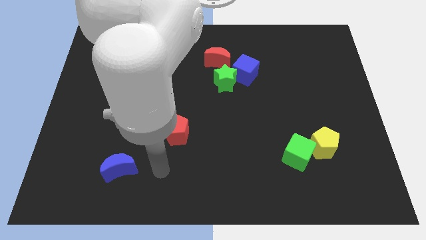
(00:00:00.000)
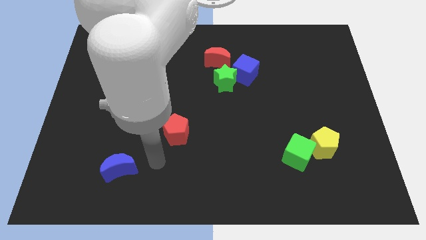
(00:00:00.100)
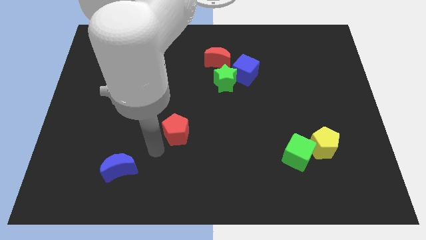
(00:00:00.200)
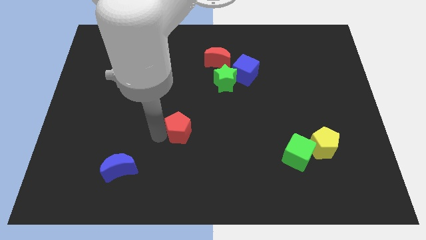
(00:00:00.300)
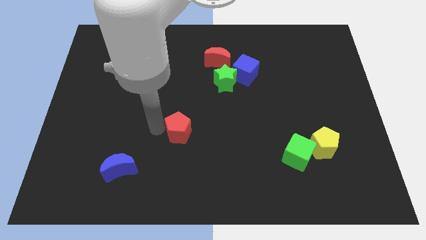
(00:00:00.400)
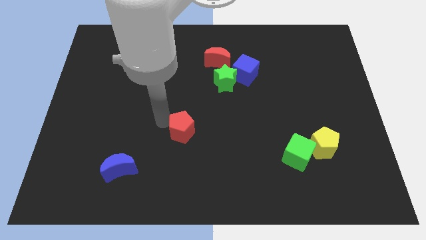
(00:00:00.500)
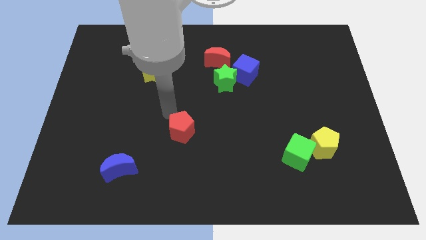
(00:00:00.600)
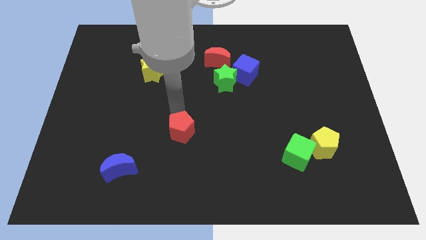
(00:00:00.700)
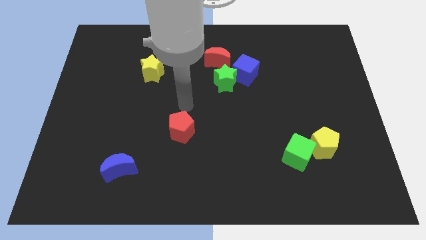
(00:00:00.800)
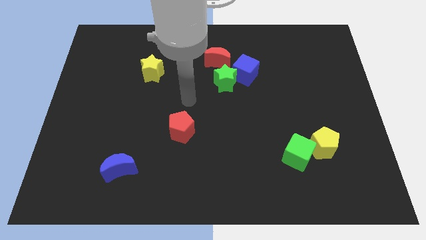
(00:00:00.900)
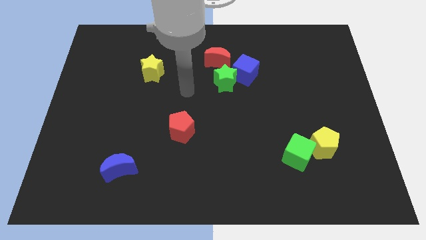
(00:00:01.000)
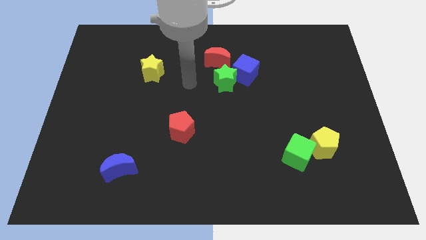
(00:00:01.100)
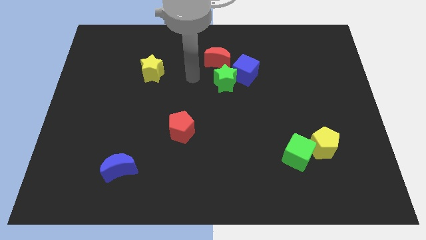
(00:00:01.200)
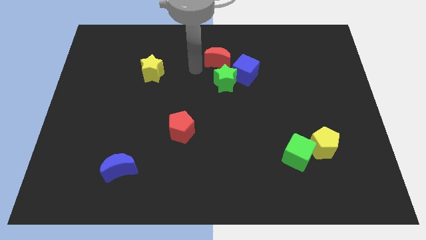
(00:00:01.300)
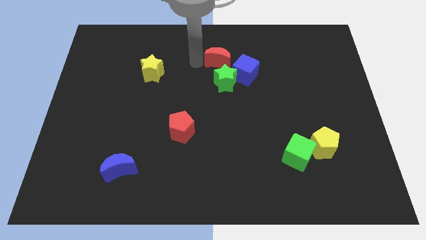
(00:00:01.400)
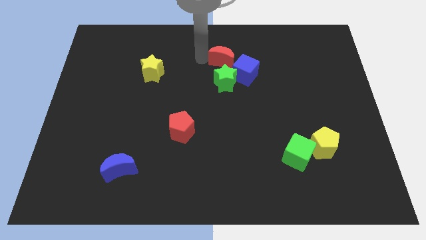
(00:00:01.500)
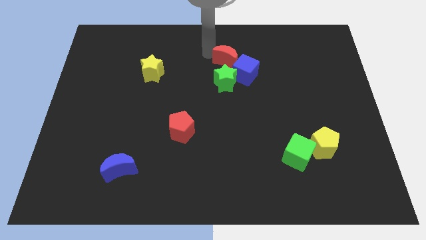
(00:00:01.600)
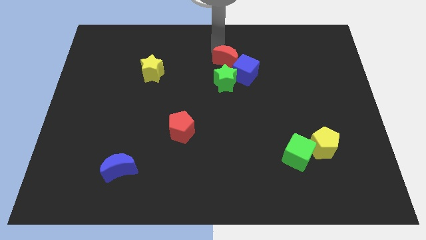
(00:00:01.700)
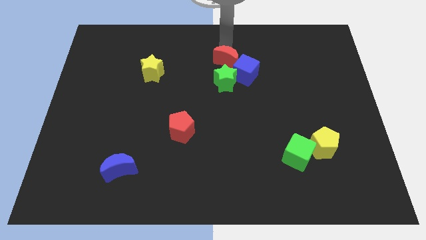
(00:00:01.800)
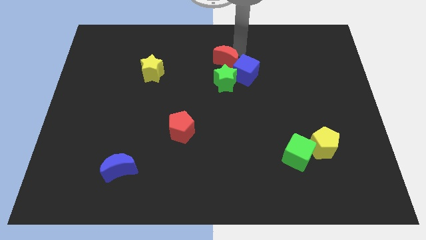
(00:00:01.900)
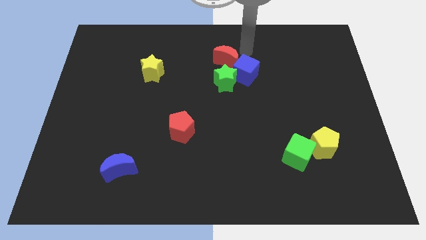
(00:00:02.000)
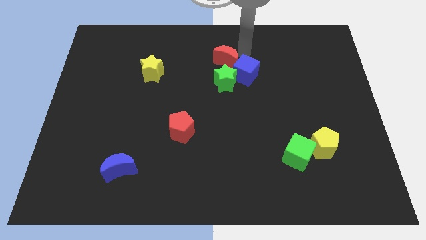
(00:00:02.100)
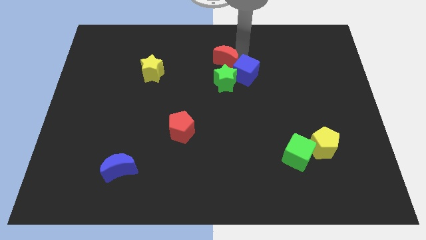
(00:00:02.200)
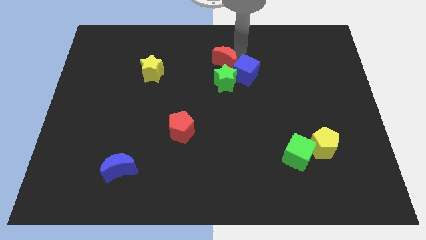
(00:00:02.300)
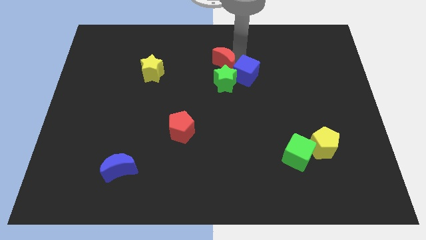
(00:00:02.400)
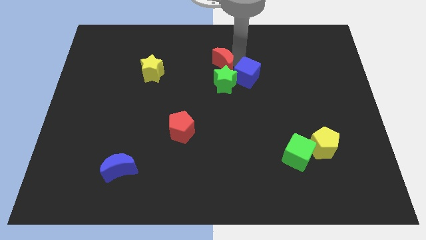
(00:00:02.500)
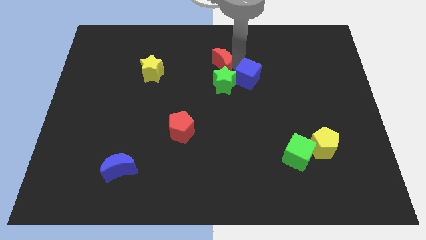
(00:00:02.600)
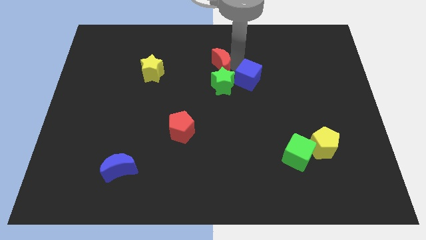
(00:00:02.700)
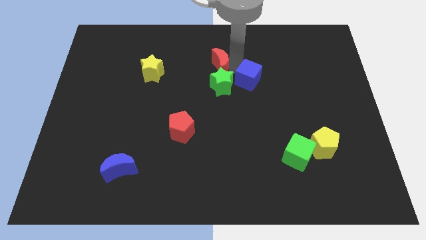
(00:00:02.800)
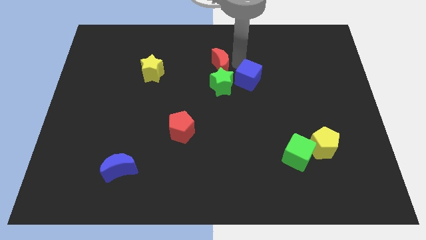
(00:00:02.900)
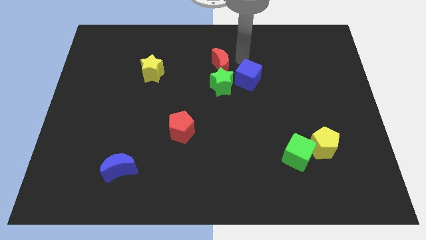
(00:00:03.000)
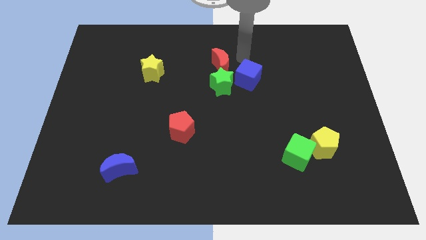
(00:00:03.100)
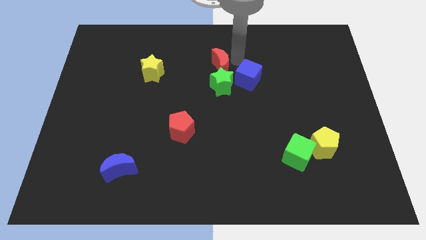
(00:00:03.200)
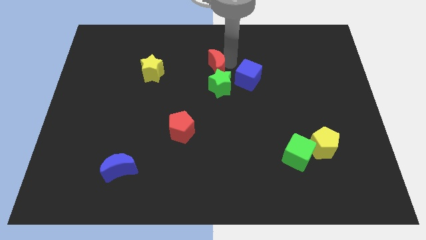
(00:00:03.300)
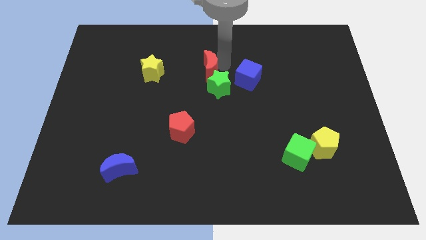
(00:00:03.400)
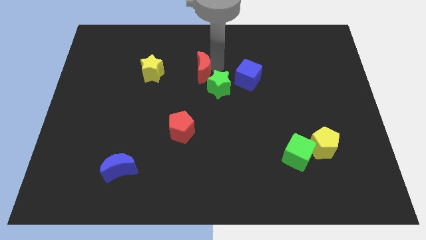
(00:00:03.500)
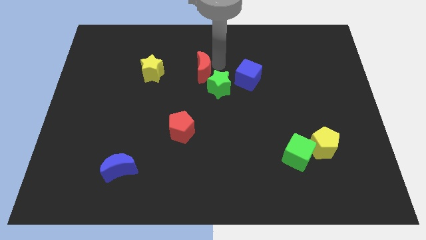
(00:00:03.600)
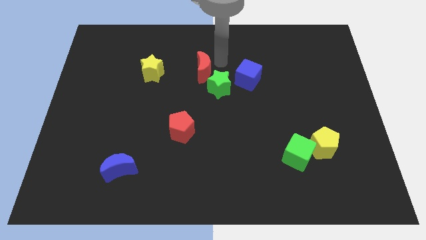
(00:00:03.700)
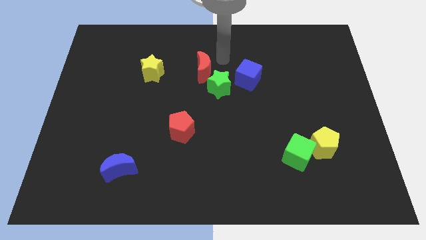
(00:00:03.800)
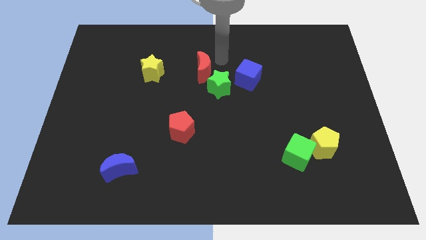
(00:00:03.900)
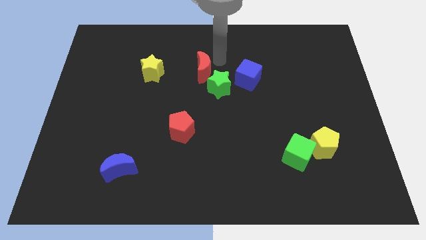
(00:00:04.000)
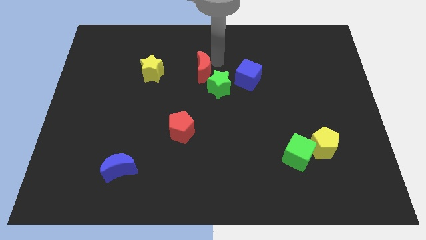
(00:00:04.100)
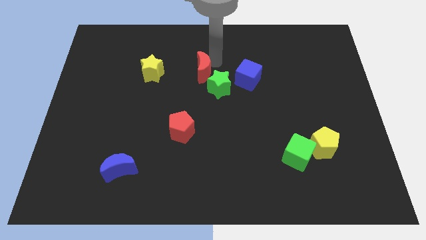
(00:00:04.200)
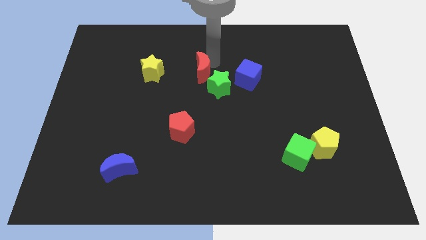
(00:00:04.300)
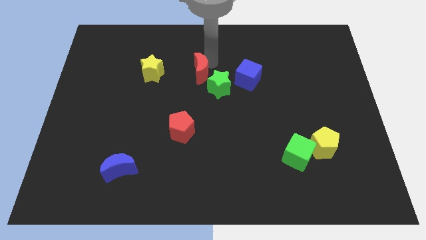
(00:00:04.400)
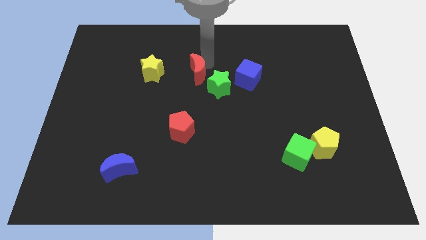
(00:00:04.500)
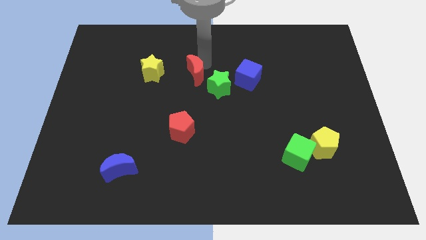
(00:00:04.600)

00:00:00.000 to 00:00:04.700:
move the red moon a little diagonally downwards and to the left

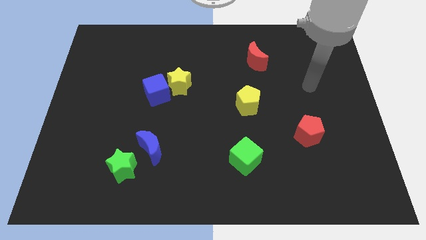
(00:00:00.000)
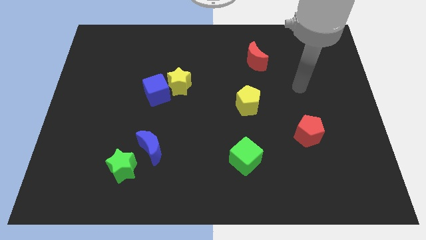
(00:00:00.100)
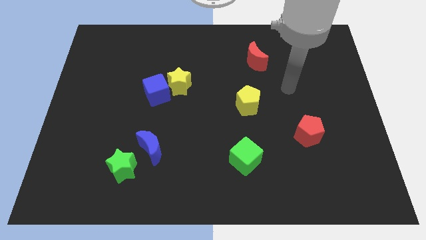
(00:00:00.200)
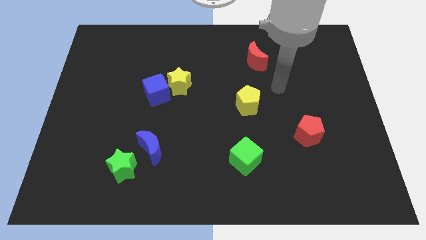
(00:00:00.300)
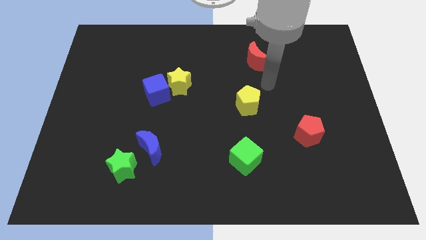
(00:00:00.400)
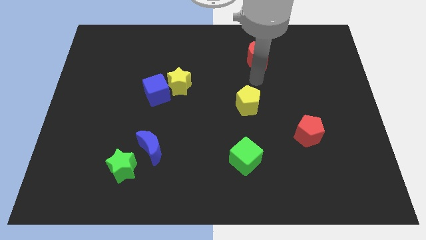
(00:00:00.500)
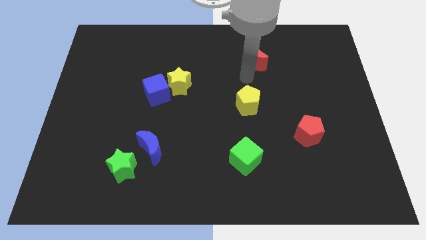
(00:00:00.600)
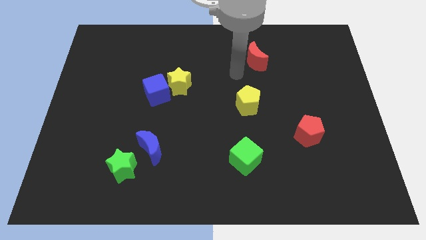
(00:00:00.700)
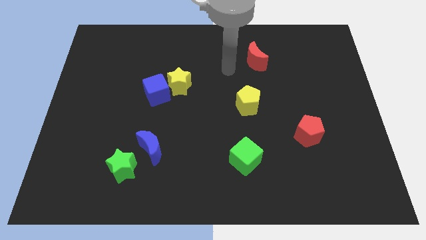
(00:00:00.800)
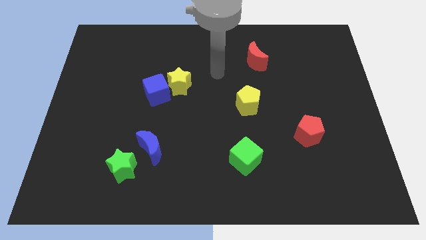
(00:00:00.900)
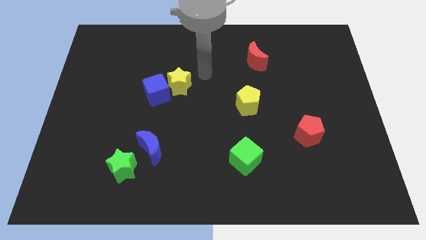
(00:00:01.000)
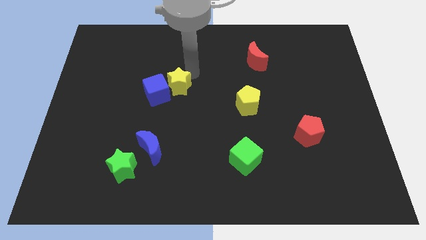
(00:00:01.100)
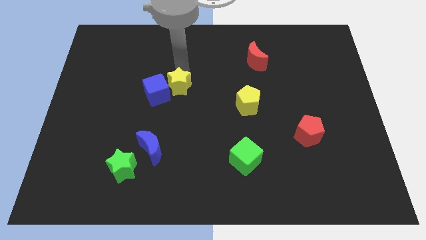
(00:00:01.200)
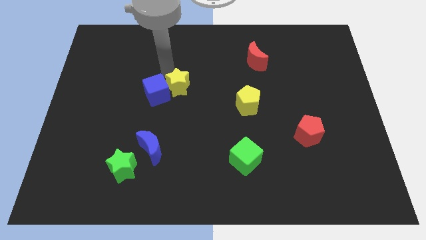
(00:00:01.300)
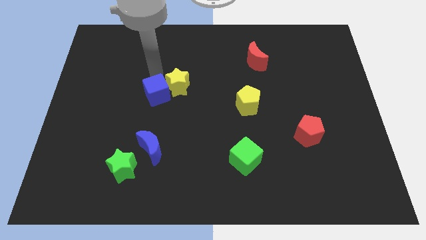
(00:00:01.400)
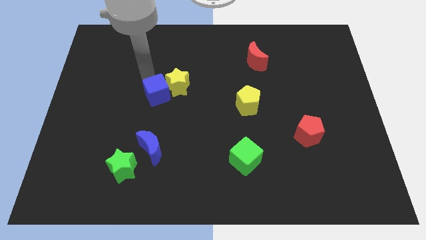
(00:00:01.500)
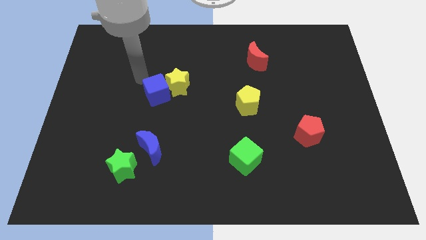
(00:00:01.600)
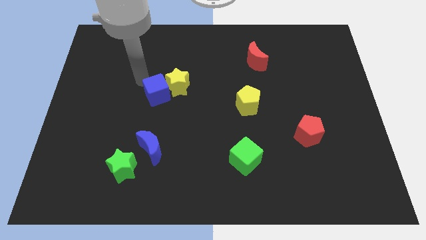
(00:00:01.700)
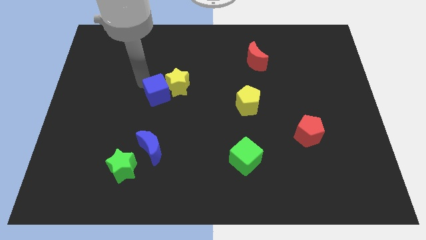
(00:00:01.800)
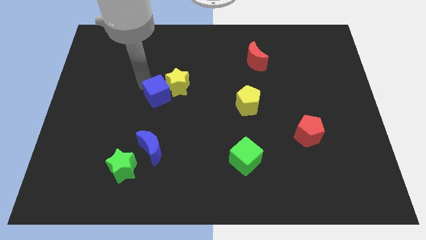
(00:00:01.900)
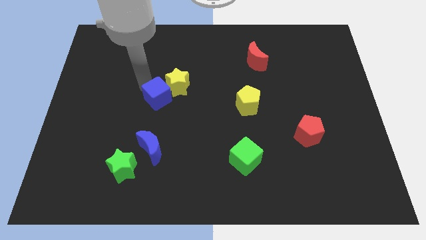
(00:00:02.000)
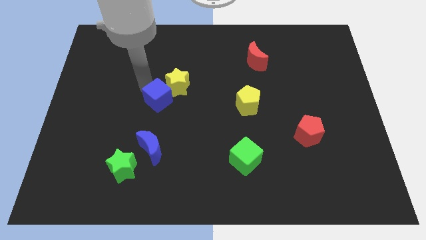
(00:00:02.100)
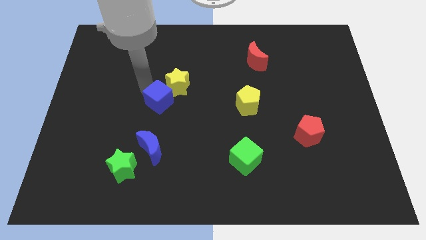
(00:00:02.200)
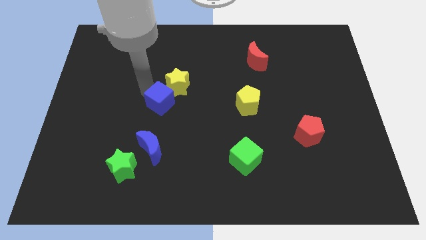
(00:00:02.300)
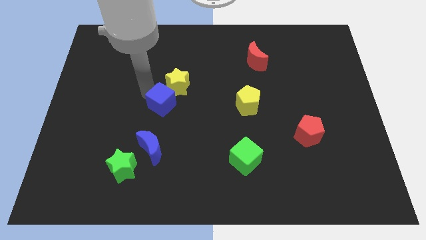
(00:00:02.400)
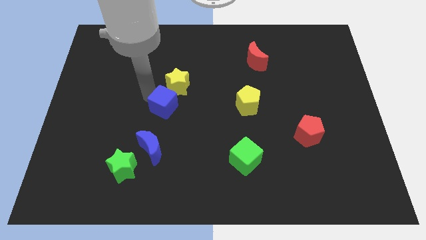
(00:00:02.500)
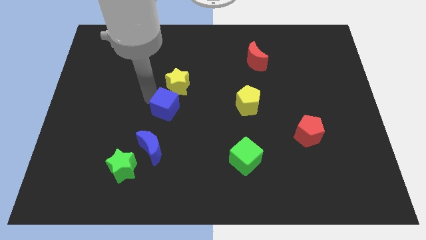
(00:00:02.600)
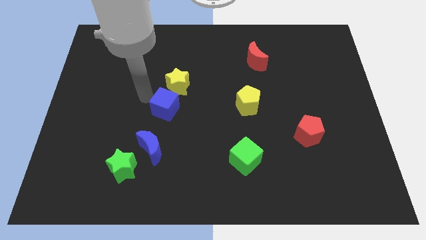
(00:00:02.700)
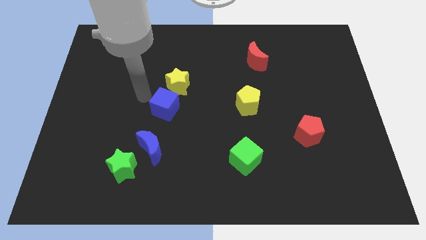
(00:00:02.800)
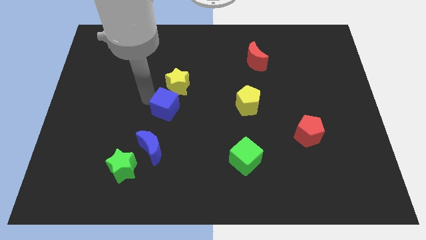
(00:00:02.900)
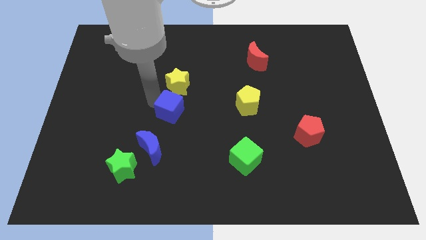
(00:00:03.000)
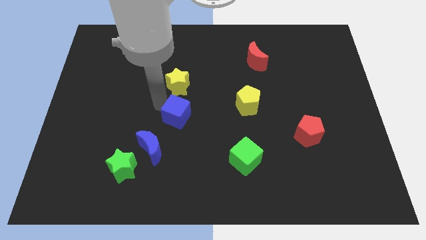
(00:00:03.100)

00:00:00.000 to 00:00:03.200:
slightly slide the blue cube down and then right
